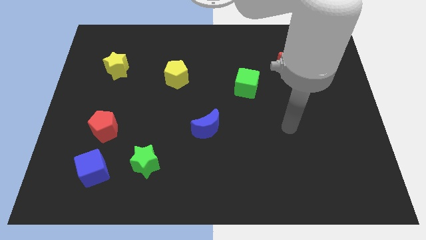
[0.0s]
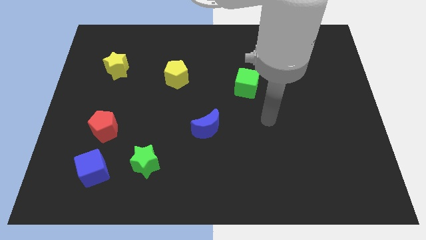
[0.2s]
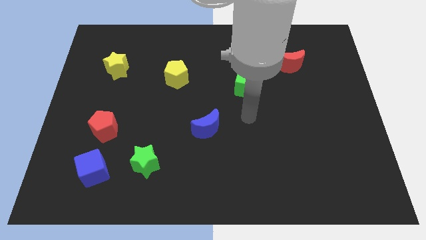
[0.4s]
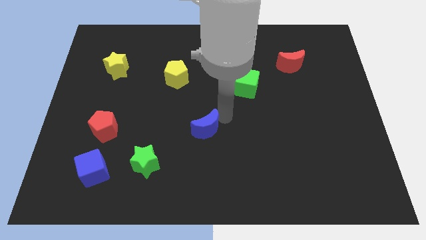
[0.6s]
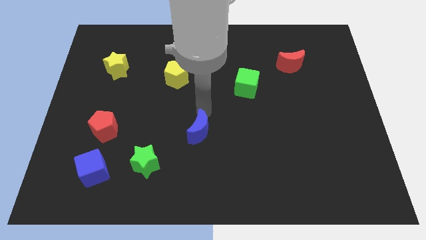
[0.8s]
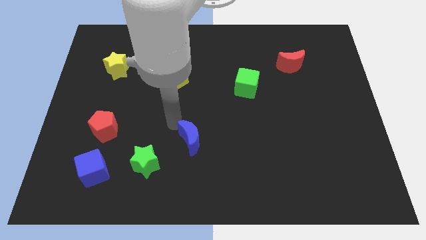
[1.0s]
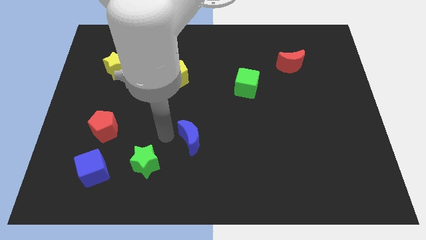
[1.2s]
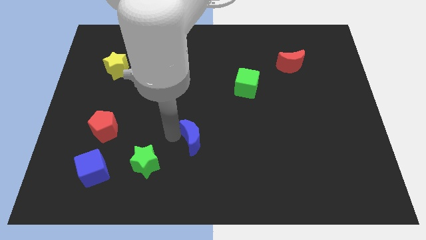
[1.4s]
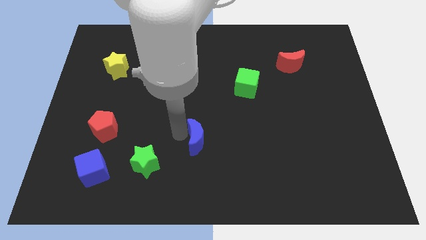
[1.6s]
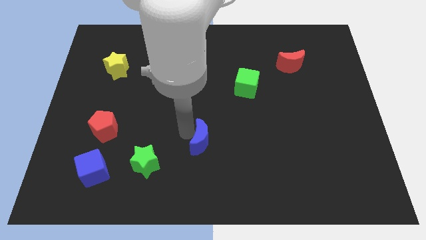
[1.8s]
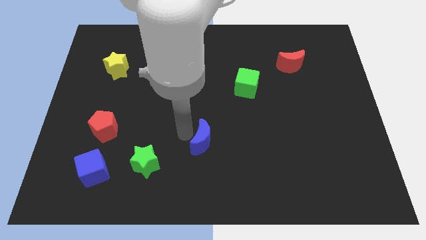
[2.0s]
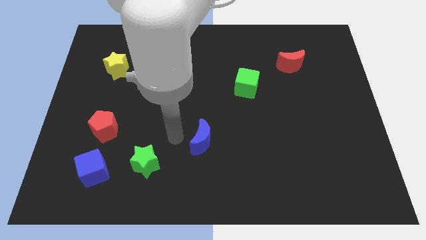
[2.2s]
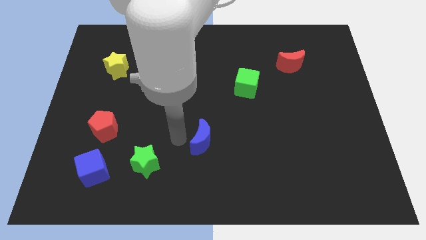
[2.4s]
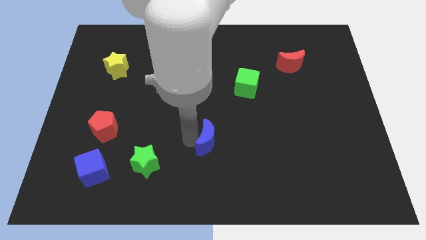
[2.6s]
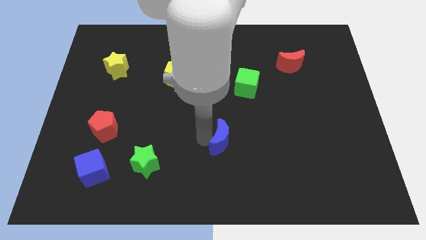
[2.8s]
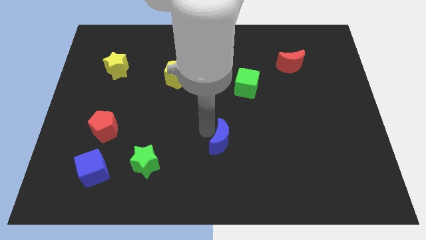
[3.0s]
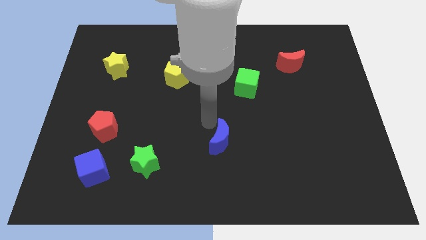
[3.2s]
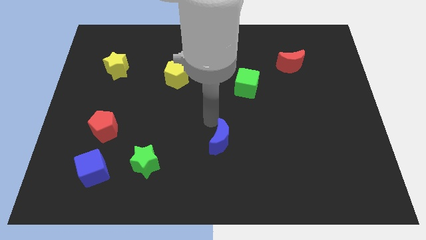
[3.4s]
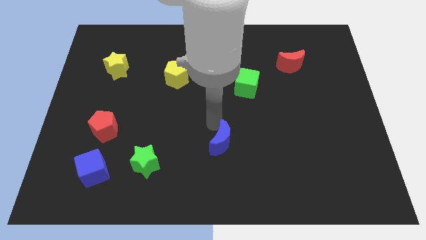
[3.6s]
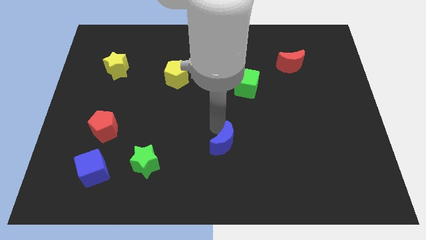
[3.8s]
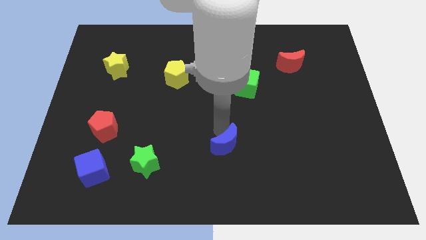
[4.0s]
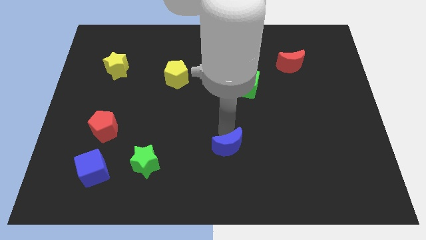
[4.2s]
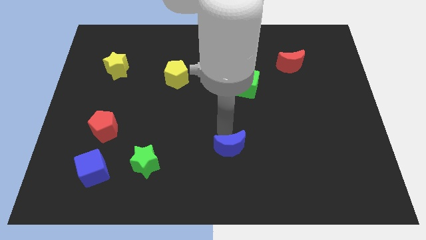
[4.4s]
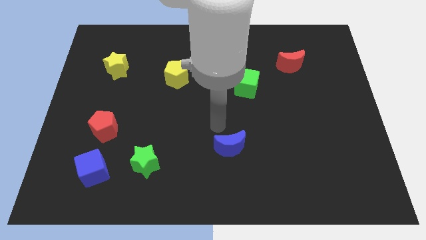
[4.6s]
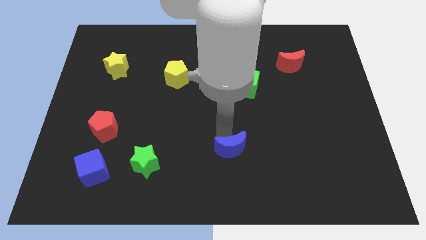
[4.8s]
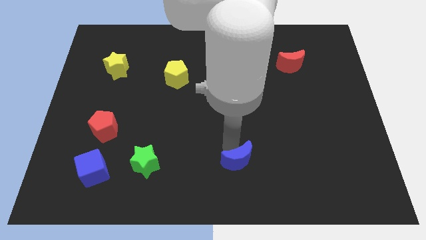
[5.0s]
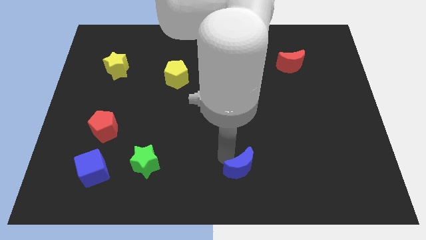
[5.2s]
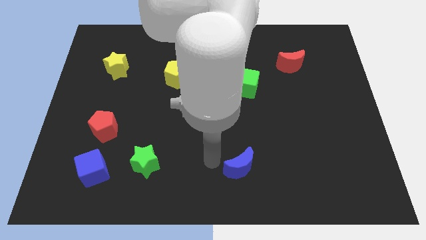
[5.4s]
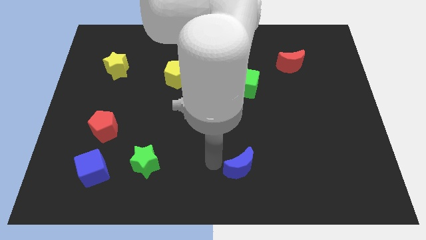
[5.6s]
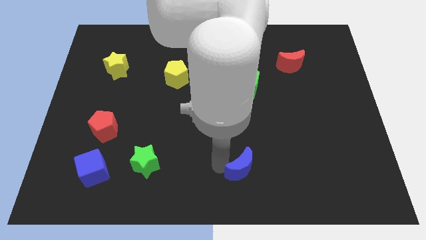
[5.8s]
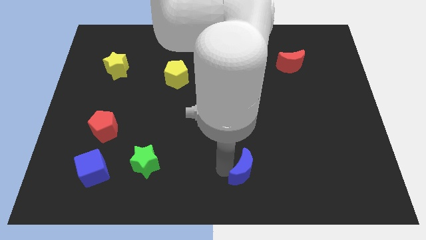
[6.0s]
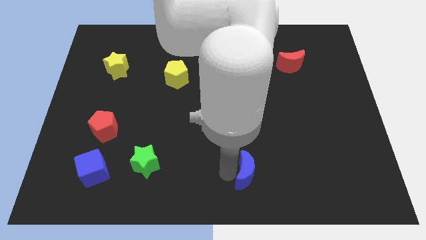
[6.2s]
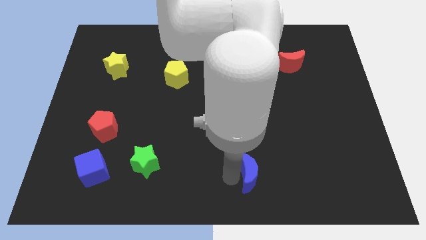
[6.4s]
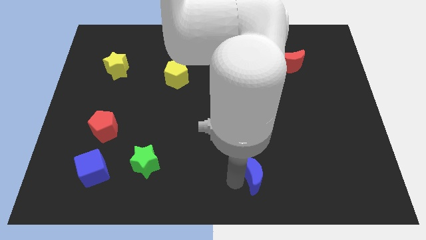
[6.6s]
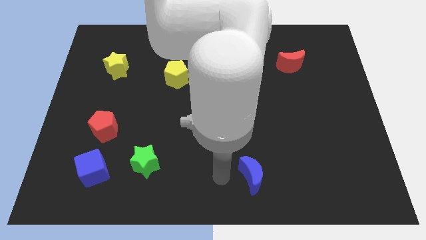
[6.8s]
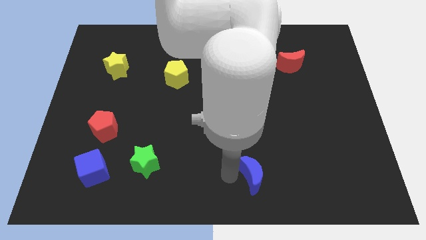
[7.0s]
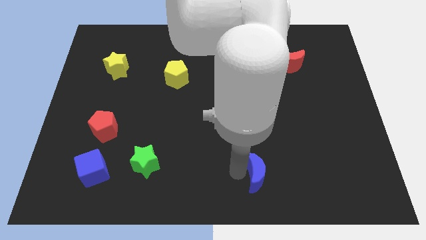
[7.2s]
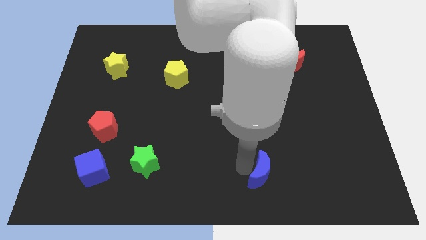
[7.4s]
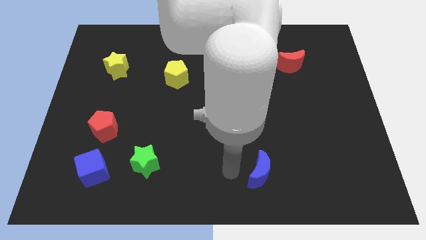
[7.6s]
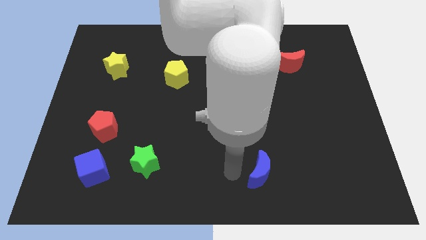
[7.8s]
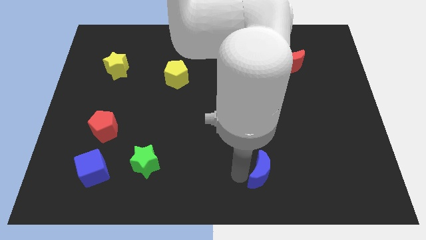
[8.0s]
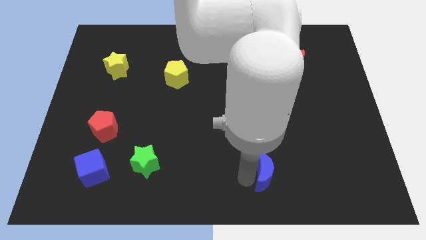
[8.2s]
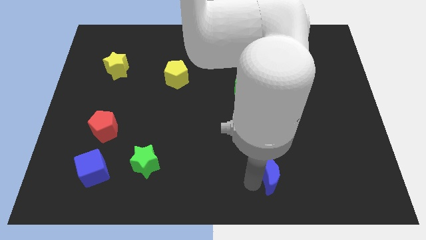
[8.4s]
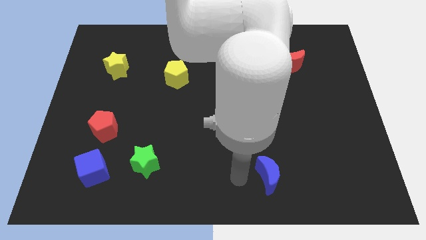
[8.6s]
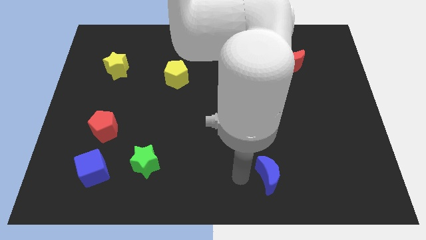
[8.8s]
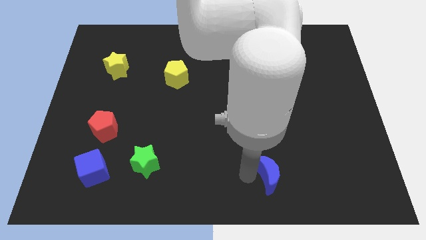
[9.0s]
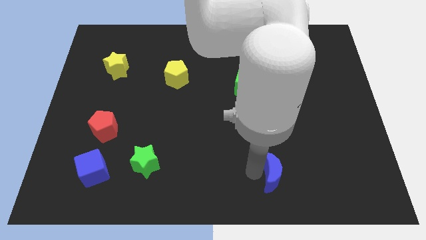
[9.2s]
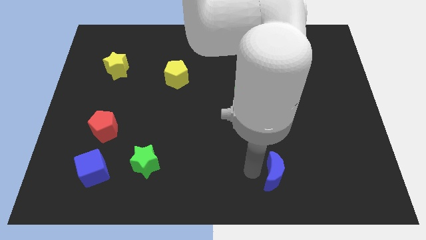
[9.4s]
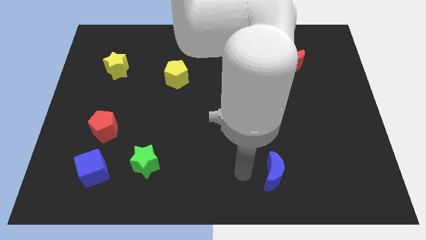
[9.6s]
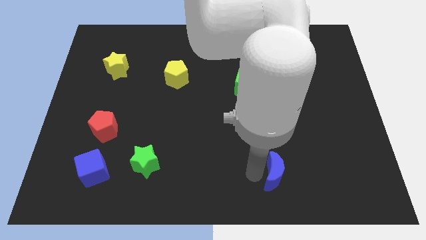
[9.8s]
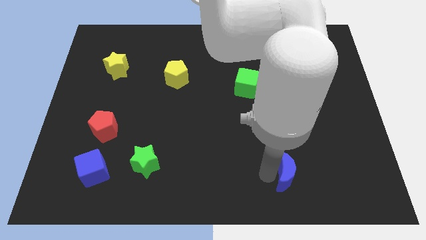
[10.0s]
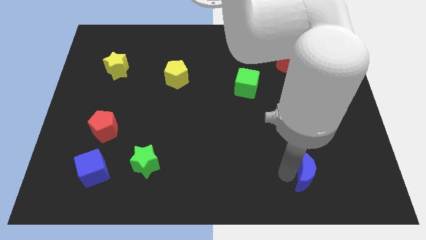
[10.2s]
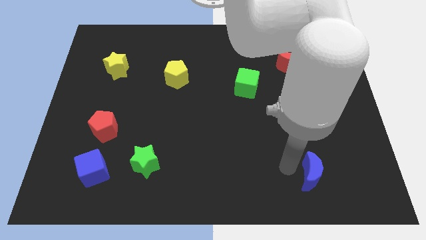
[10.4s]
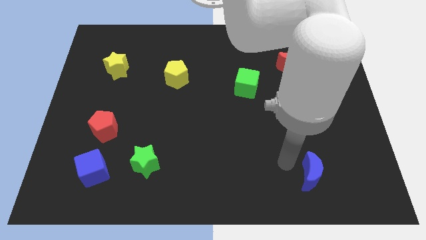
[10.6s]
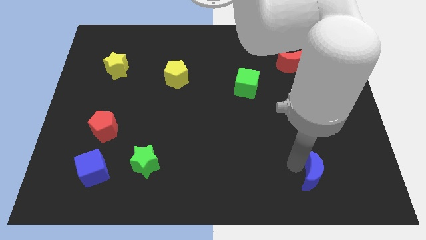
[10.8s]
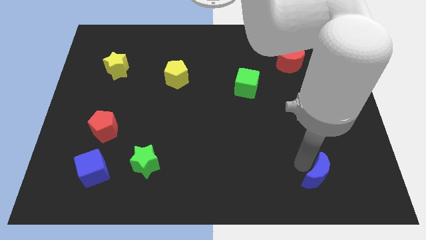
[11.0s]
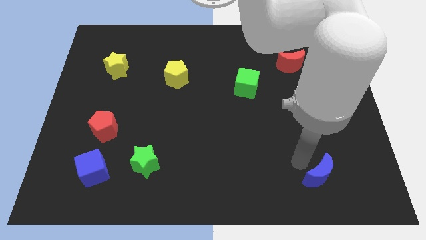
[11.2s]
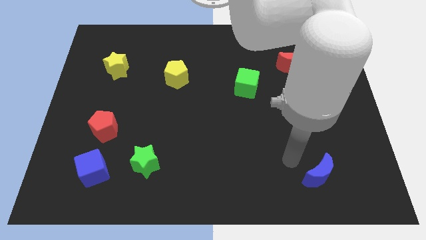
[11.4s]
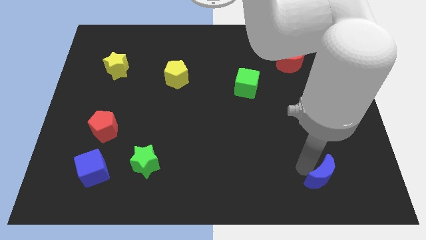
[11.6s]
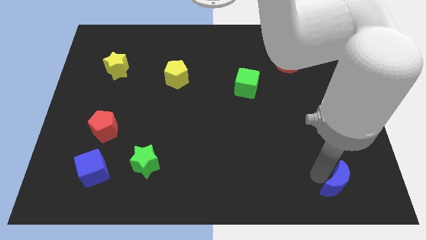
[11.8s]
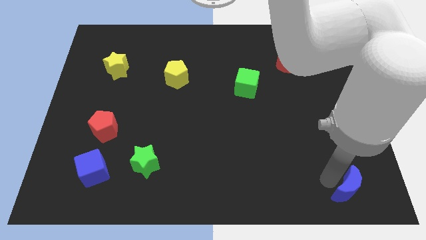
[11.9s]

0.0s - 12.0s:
slide the blue moon to the bottom right of the board
